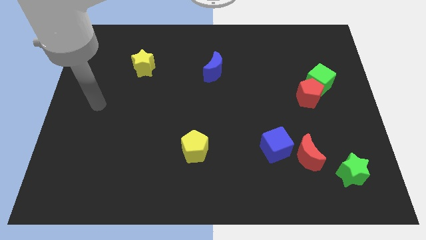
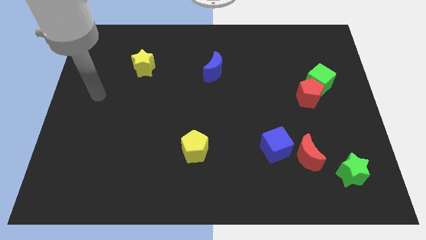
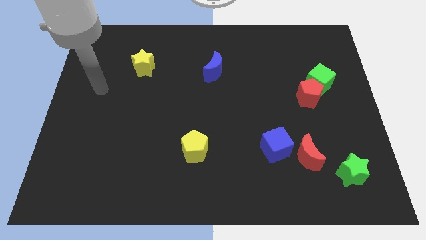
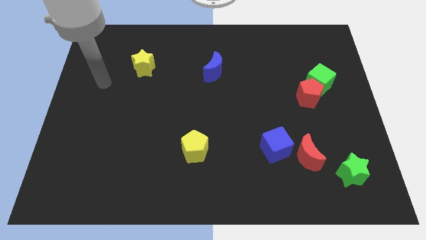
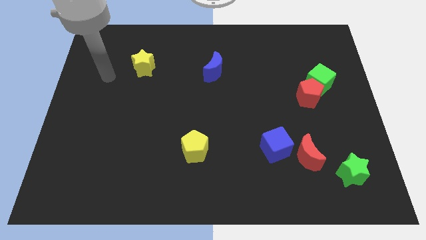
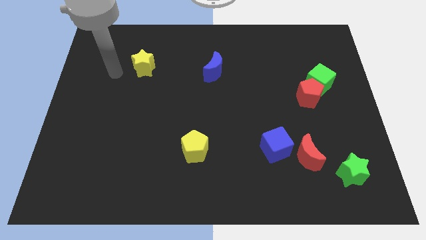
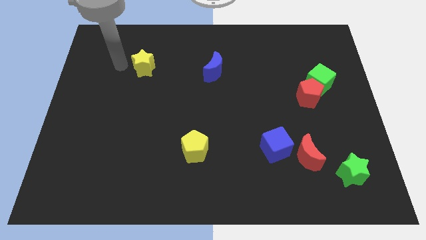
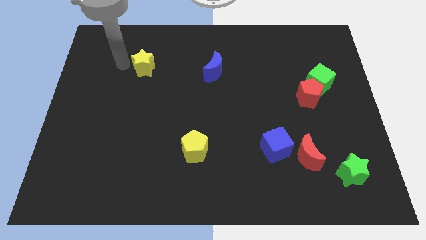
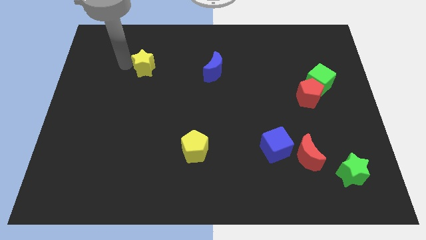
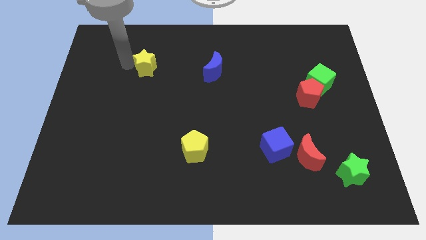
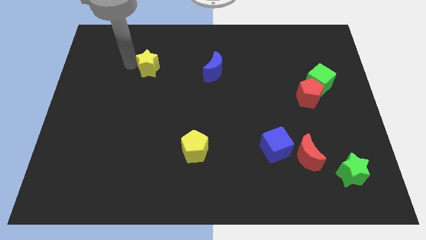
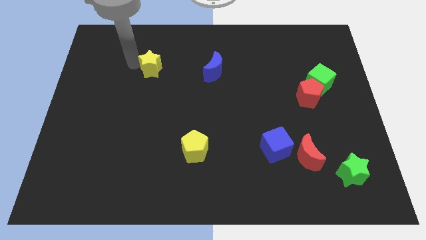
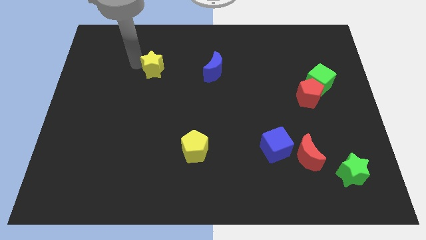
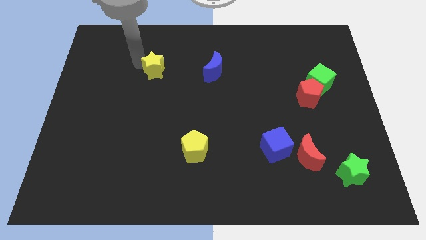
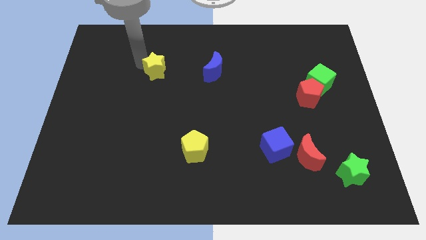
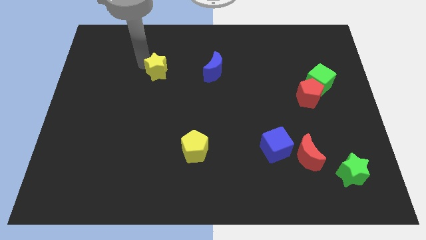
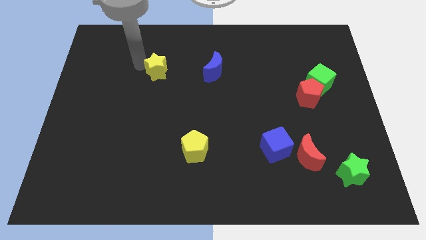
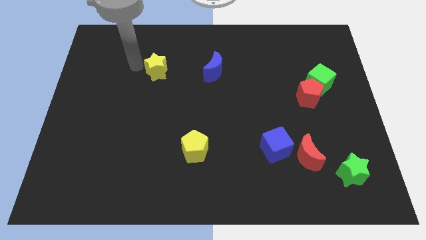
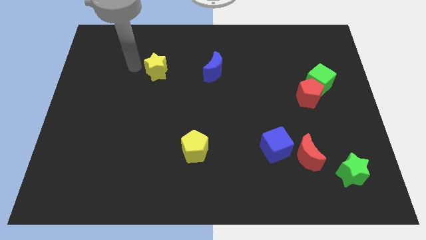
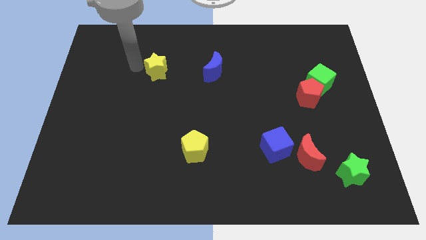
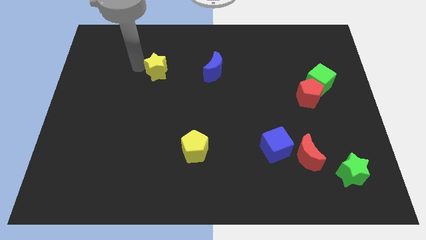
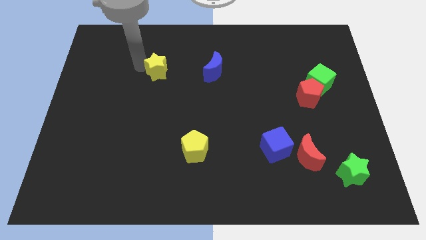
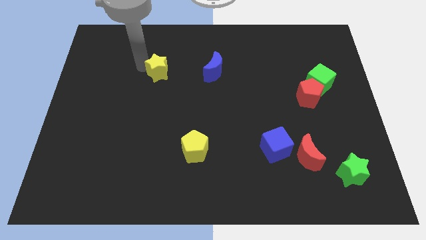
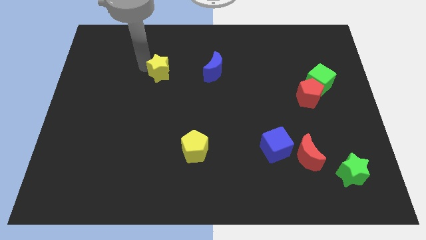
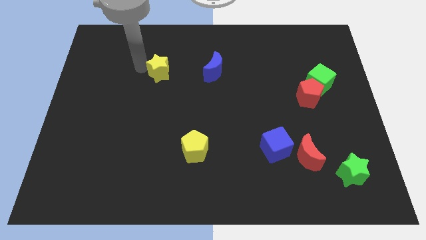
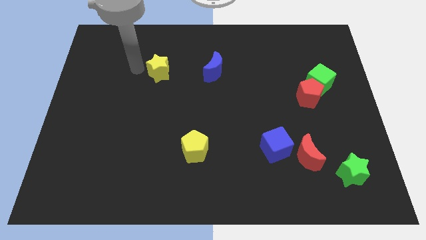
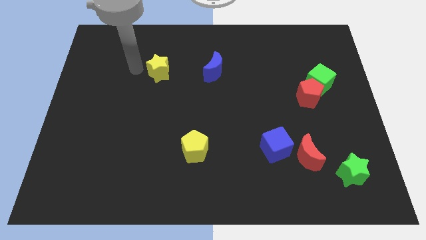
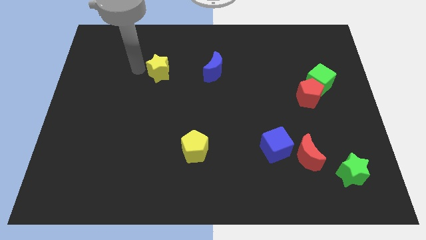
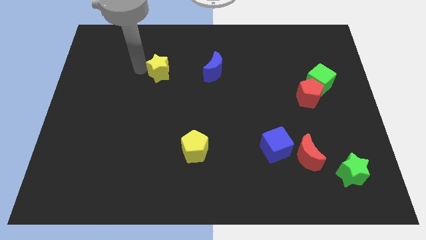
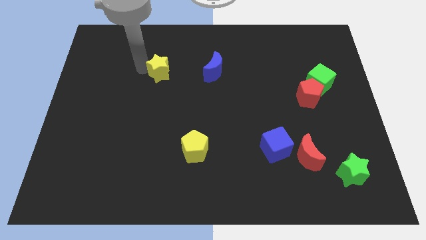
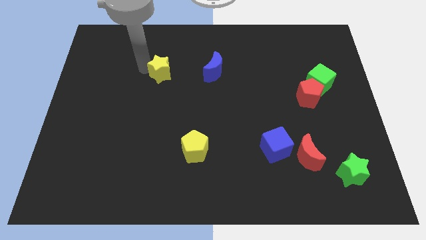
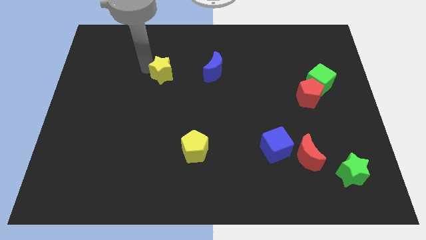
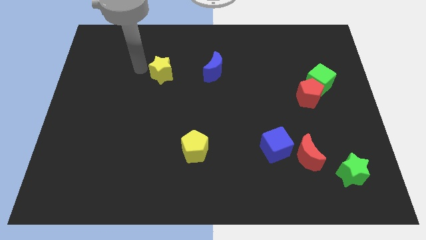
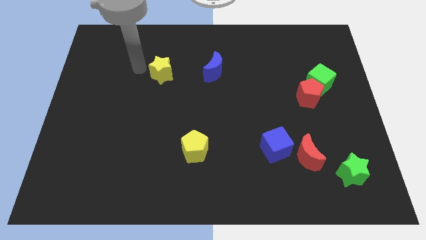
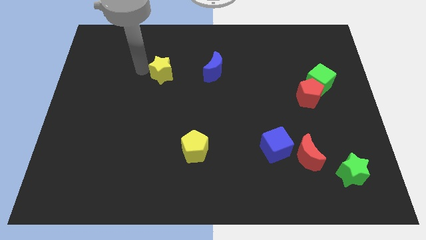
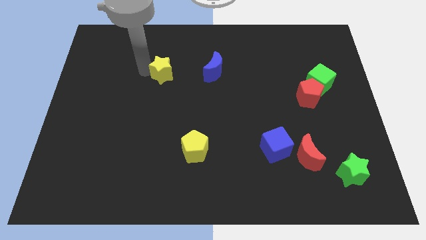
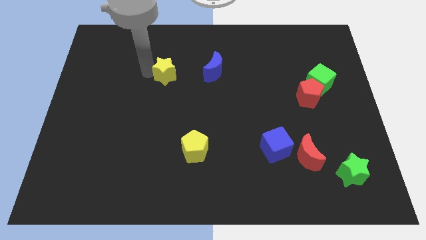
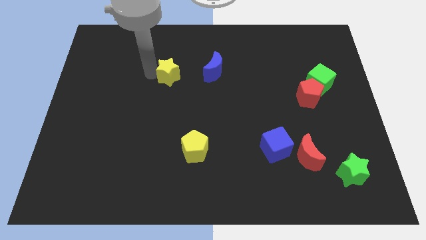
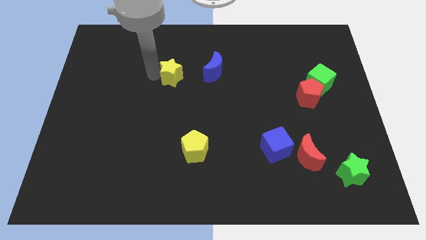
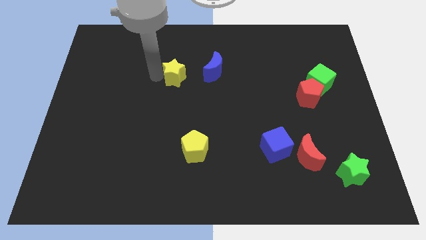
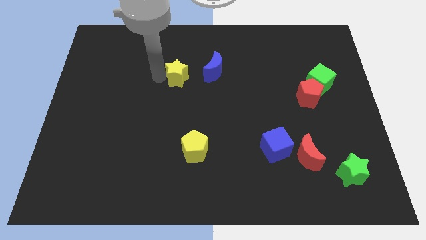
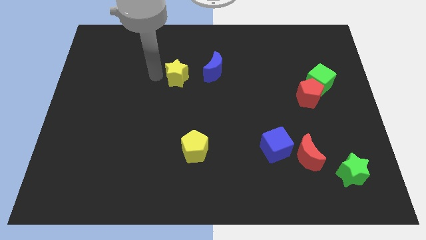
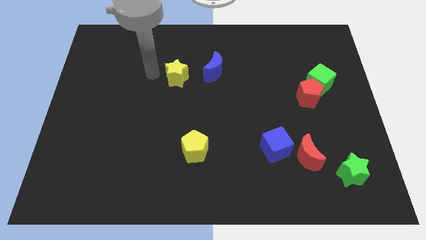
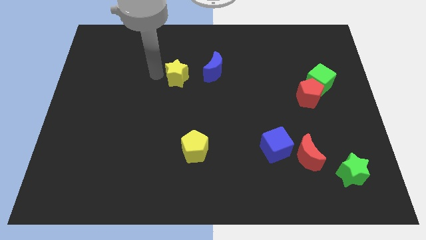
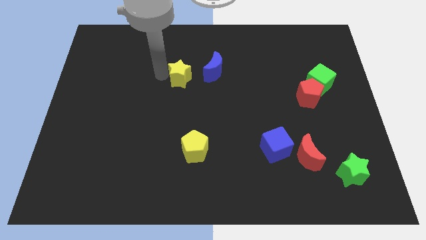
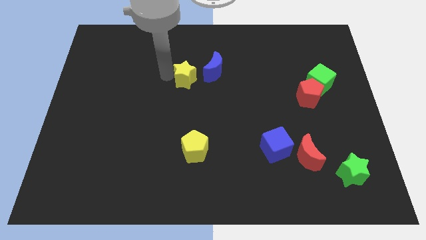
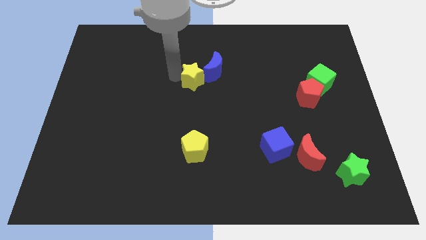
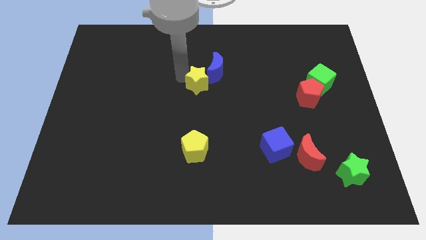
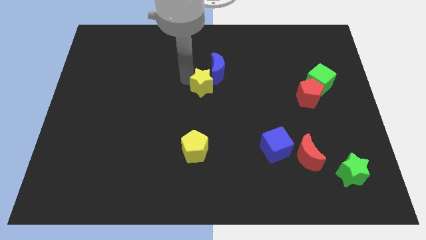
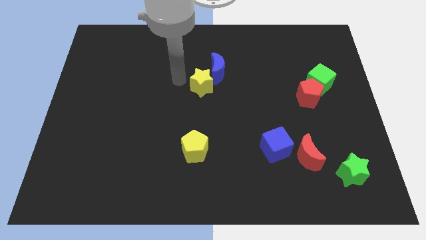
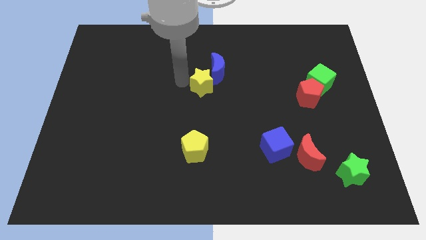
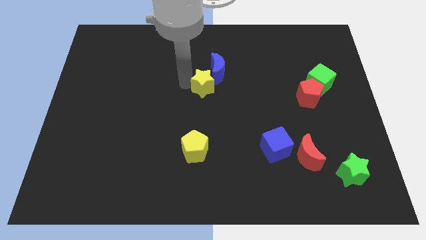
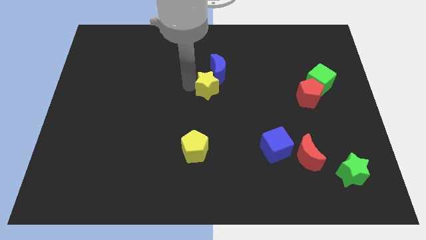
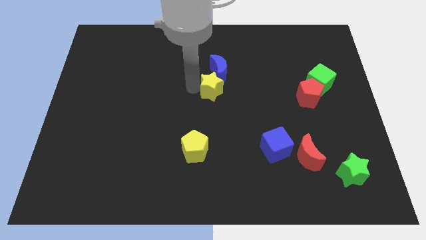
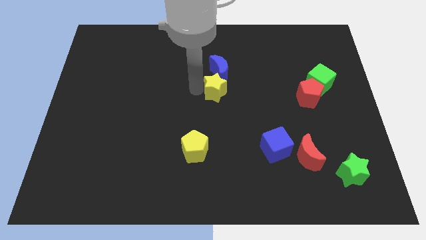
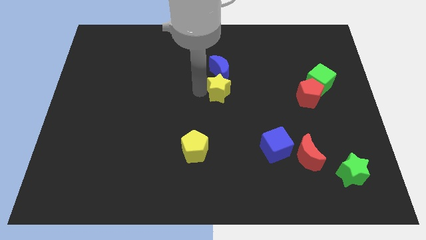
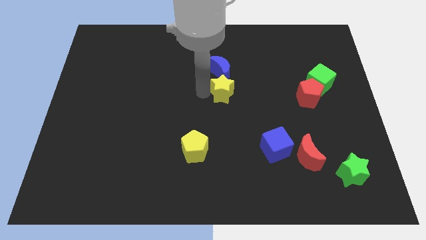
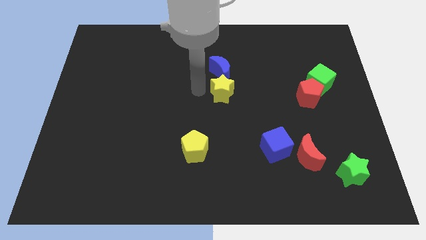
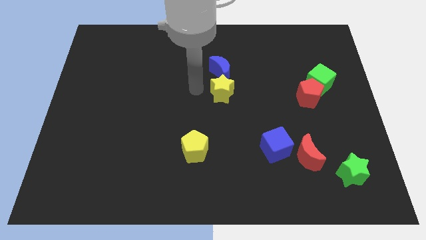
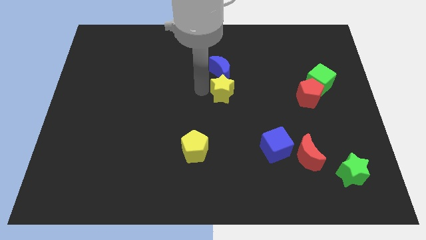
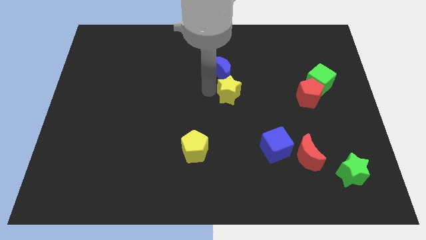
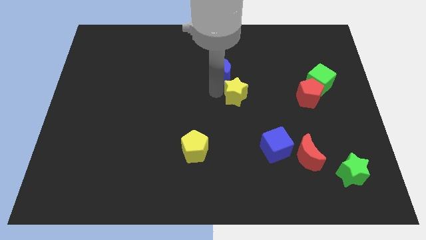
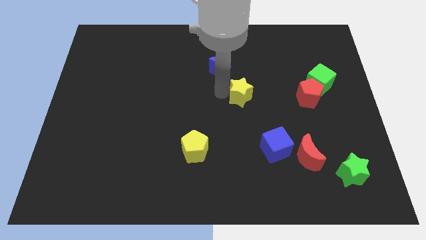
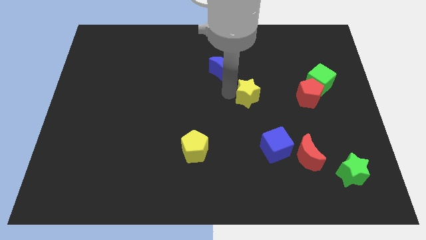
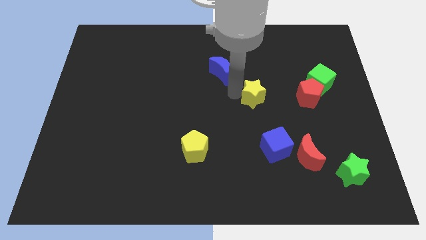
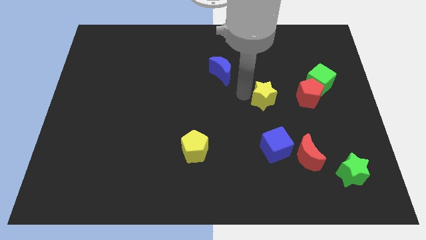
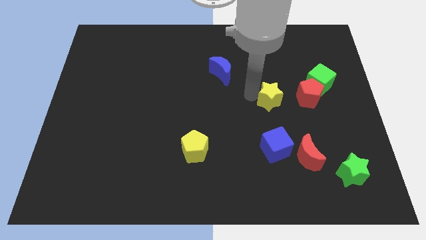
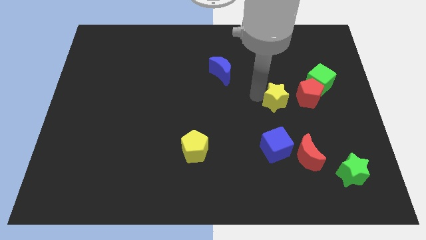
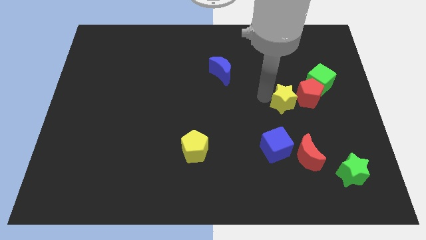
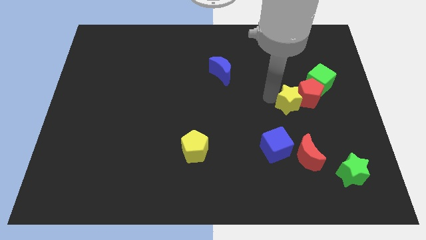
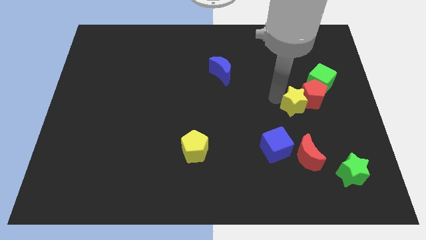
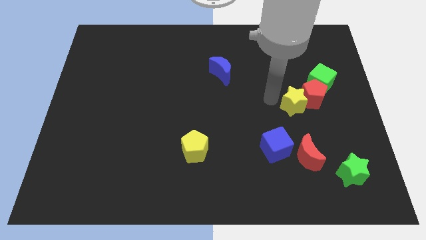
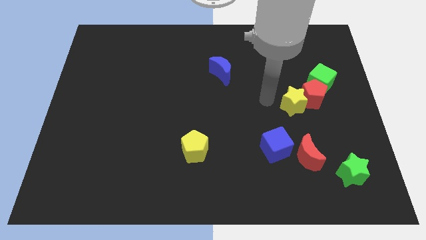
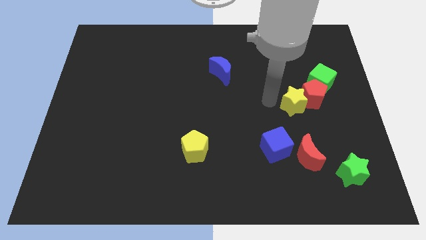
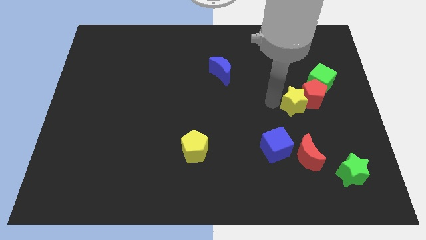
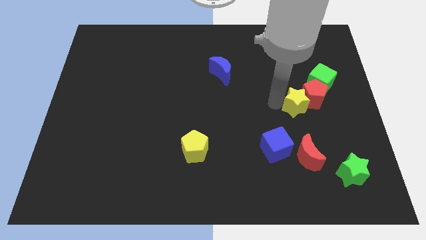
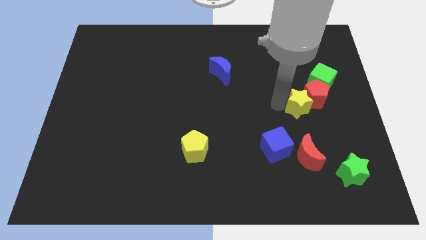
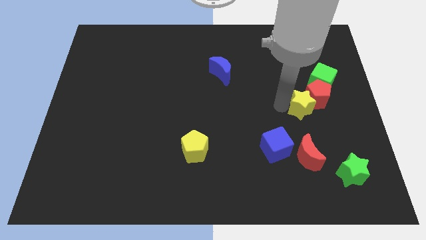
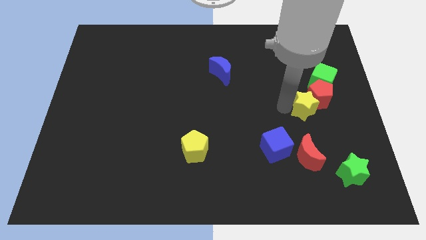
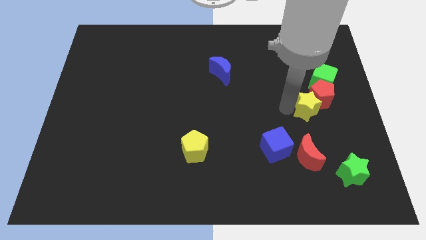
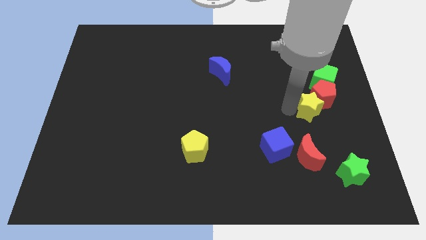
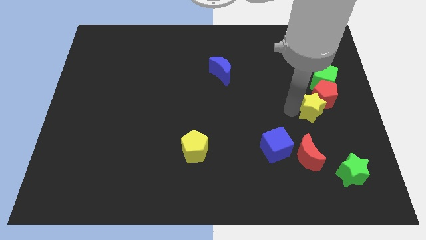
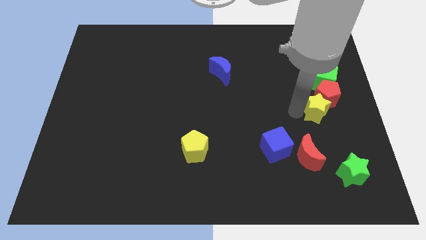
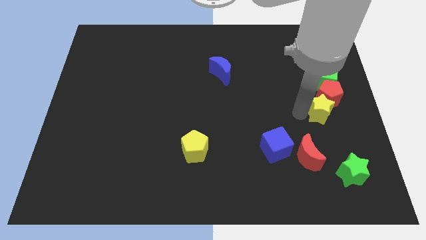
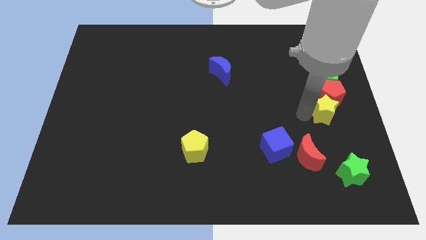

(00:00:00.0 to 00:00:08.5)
push the yellow star to the right side of the board
